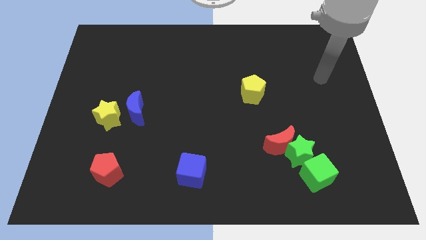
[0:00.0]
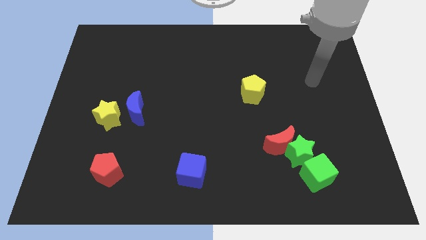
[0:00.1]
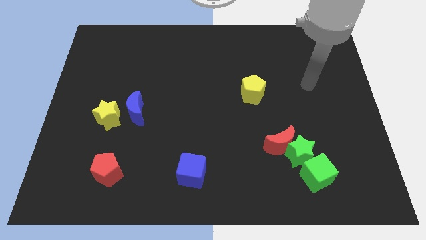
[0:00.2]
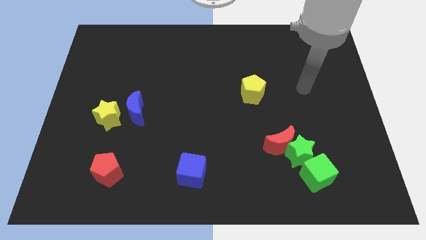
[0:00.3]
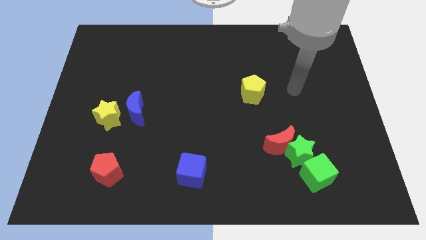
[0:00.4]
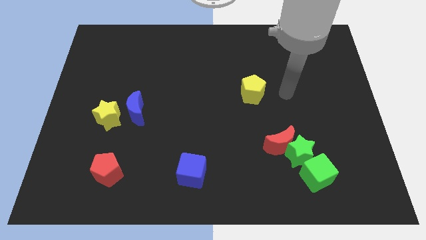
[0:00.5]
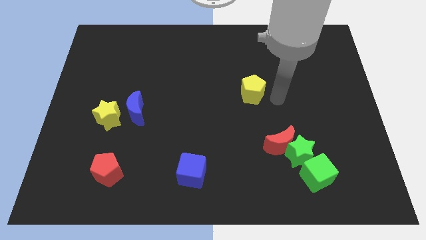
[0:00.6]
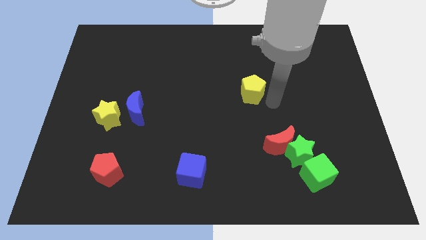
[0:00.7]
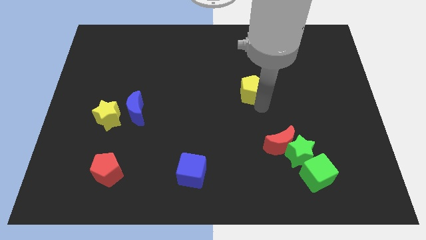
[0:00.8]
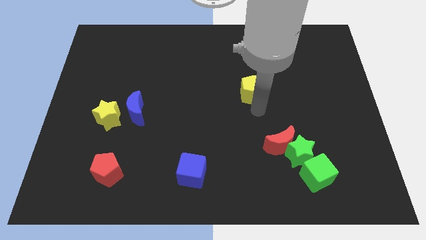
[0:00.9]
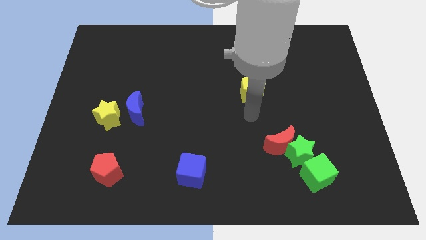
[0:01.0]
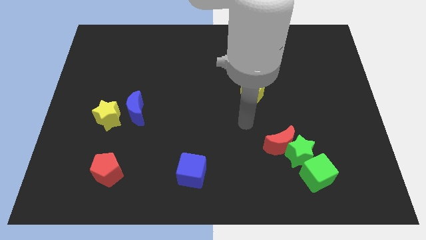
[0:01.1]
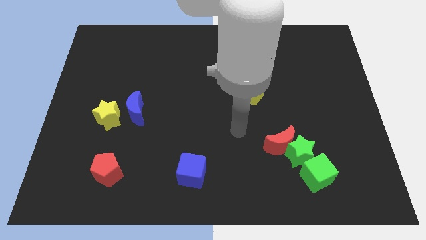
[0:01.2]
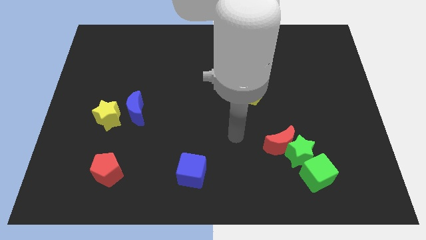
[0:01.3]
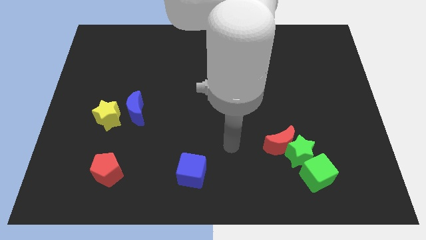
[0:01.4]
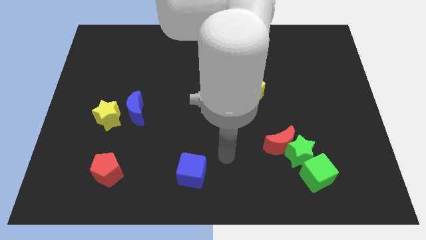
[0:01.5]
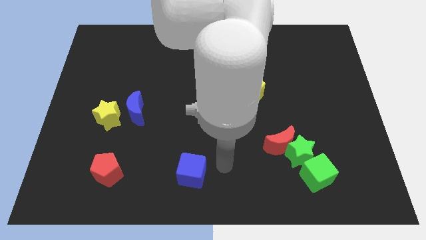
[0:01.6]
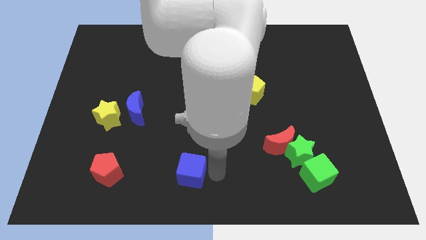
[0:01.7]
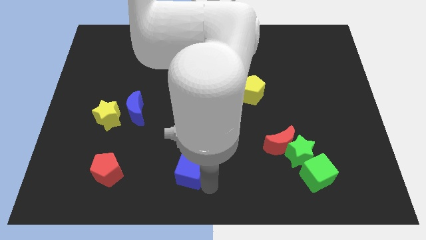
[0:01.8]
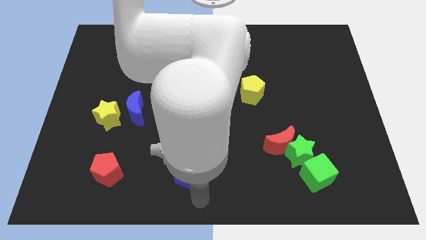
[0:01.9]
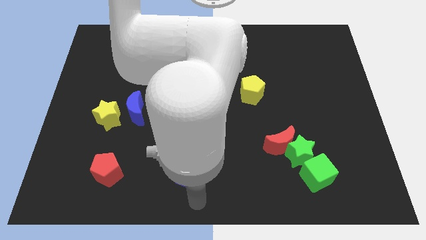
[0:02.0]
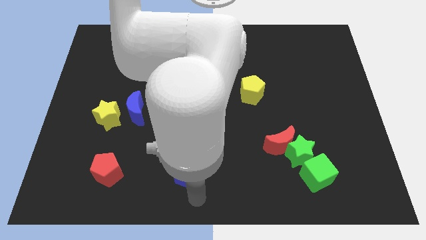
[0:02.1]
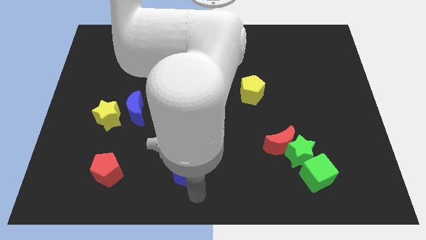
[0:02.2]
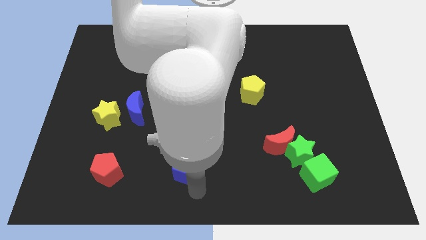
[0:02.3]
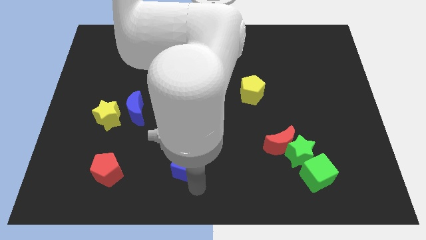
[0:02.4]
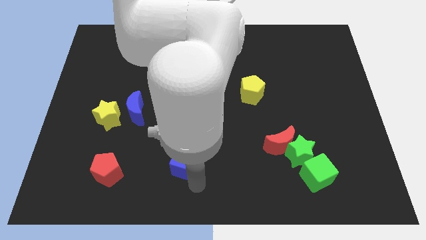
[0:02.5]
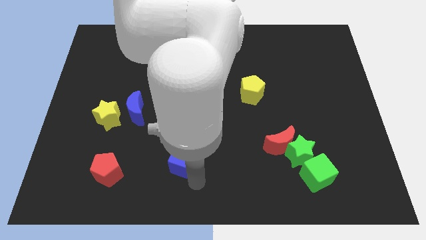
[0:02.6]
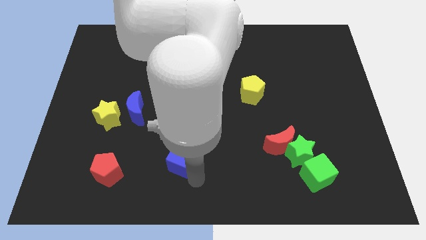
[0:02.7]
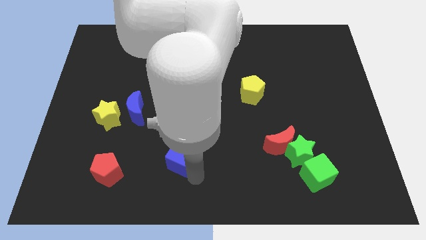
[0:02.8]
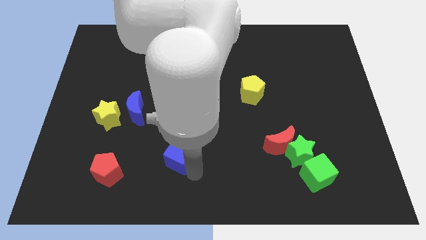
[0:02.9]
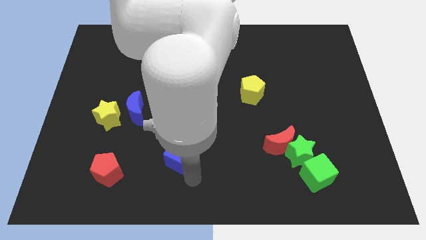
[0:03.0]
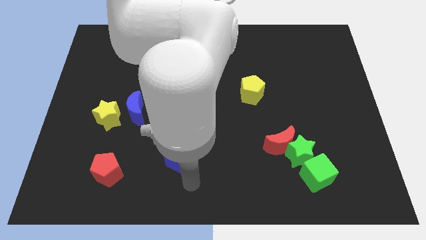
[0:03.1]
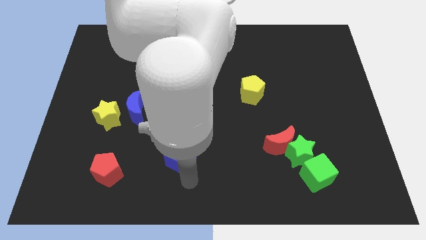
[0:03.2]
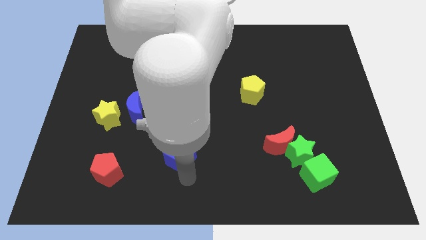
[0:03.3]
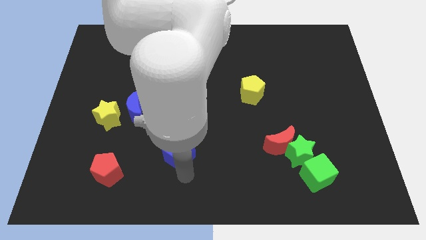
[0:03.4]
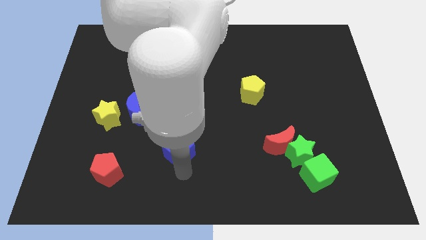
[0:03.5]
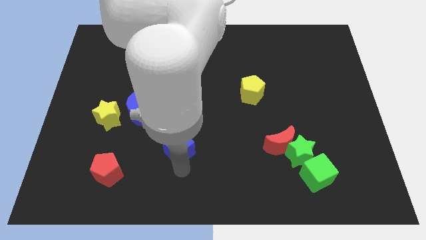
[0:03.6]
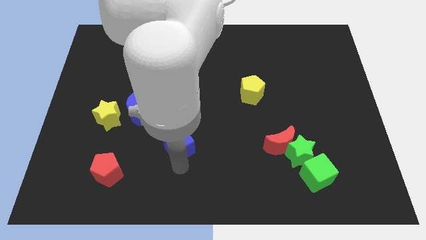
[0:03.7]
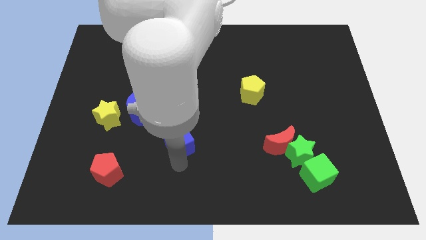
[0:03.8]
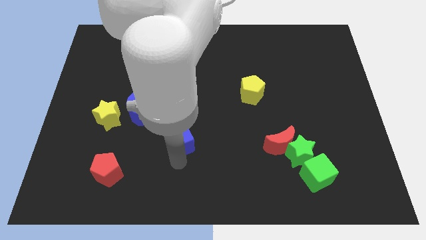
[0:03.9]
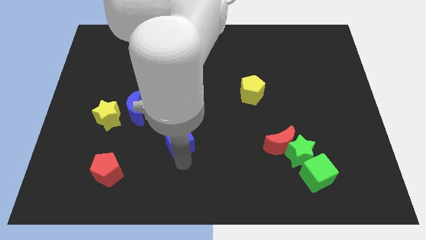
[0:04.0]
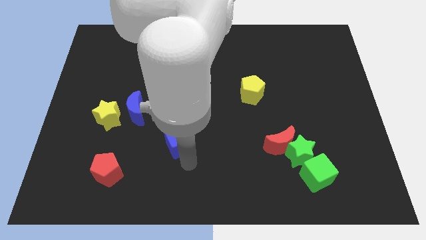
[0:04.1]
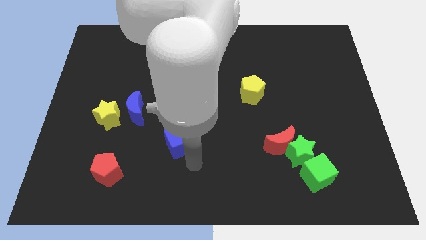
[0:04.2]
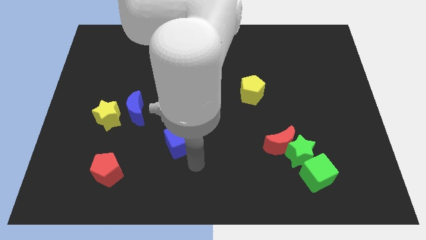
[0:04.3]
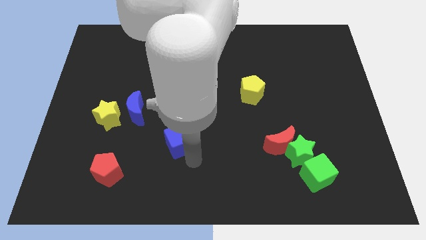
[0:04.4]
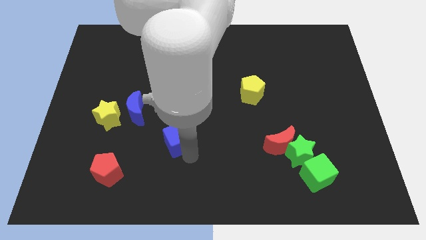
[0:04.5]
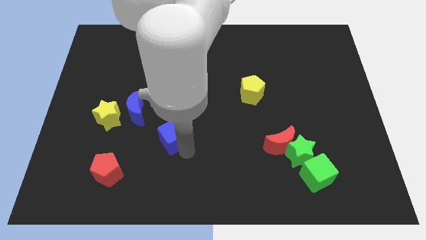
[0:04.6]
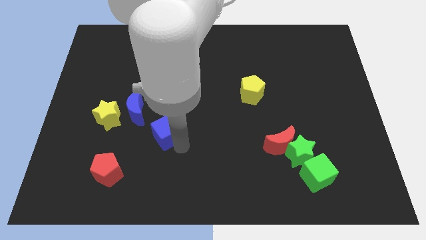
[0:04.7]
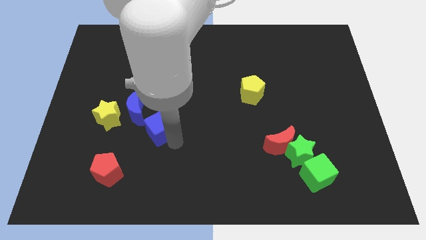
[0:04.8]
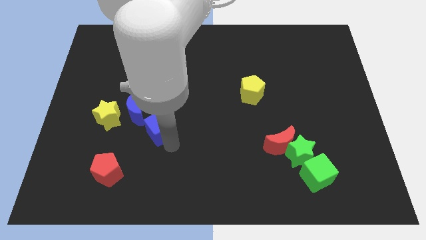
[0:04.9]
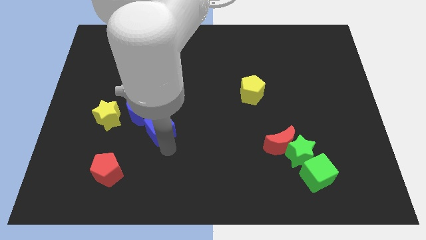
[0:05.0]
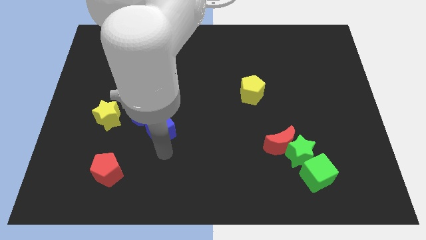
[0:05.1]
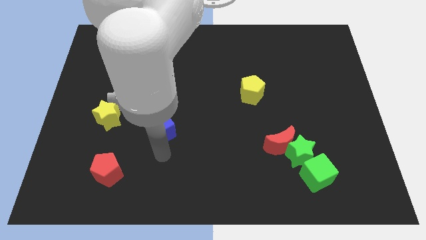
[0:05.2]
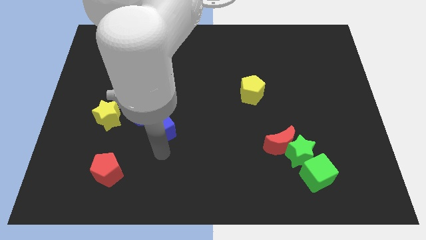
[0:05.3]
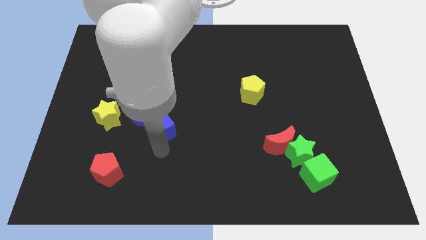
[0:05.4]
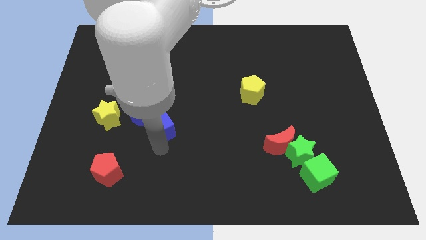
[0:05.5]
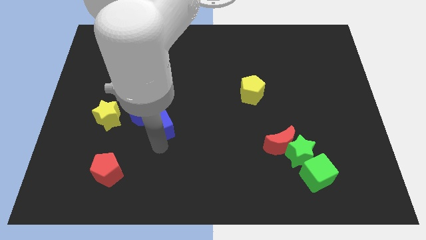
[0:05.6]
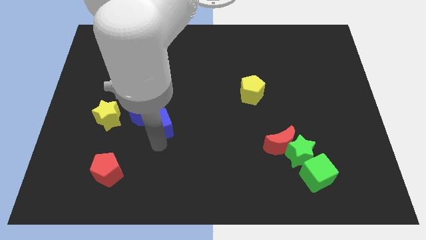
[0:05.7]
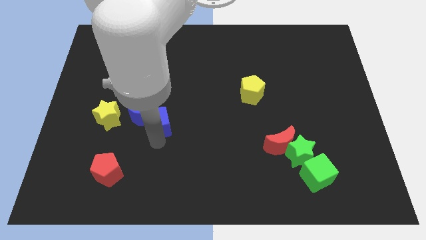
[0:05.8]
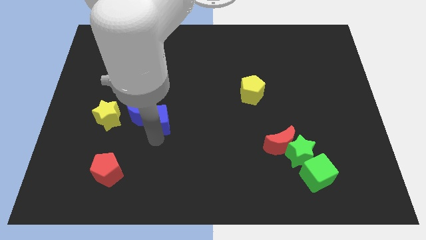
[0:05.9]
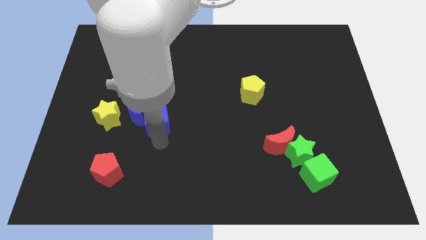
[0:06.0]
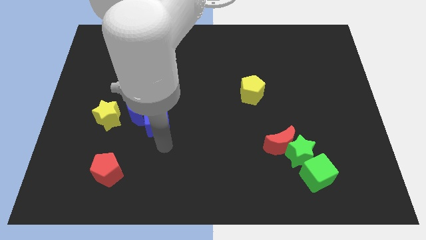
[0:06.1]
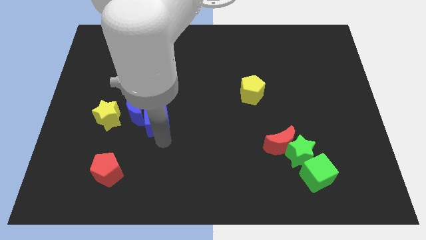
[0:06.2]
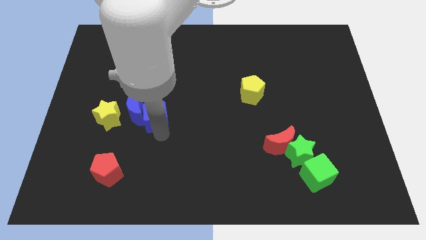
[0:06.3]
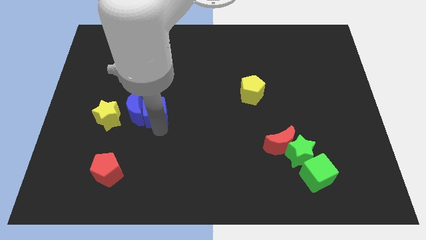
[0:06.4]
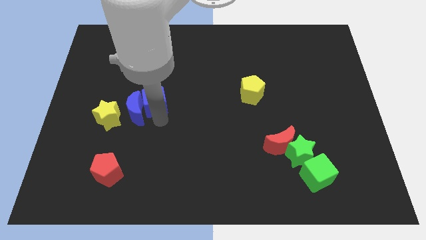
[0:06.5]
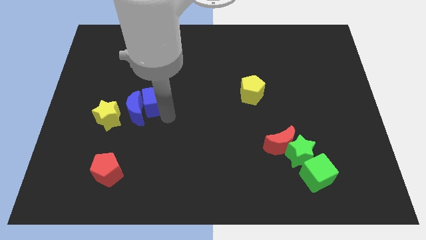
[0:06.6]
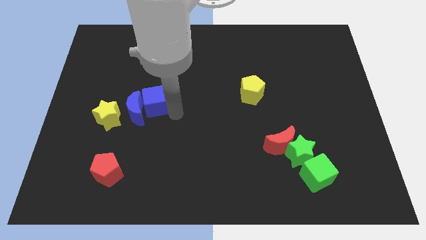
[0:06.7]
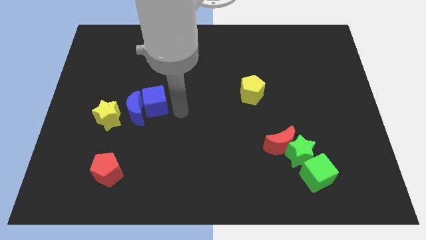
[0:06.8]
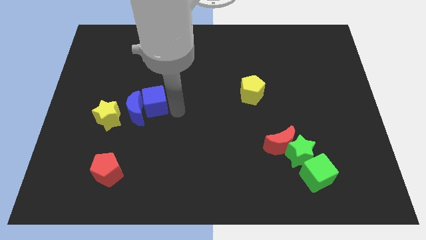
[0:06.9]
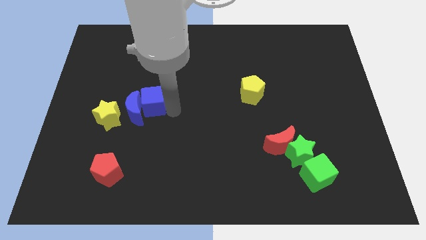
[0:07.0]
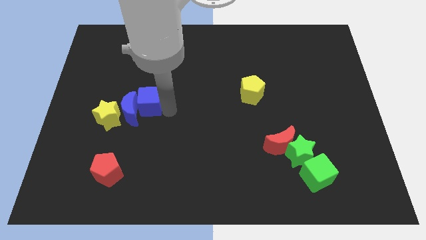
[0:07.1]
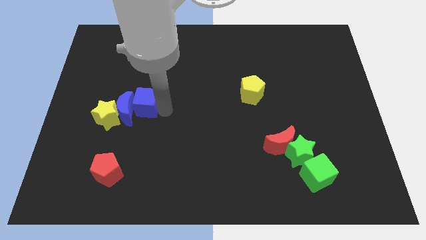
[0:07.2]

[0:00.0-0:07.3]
move the blue cube up and to the left

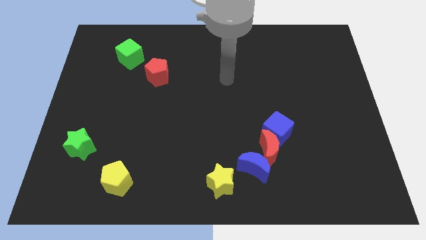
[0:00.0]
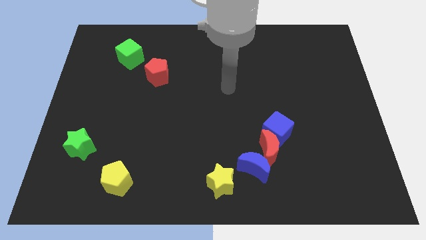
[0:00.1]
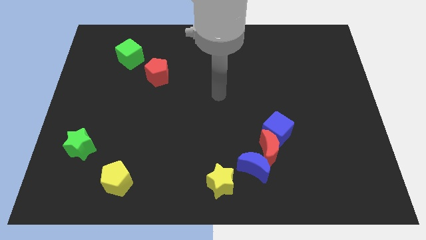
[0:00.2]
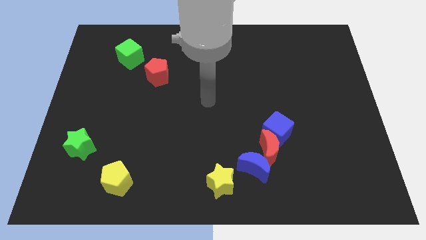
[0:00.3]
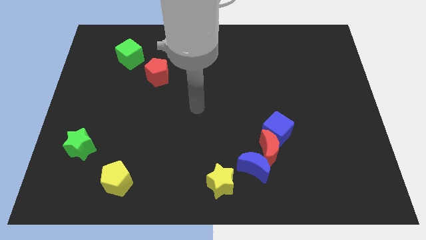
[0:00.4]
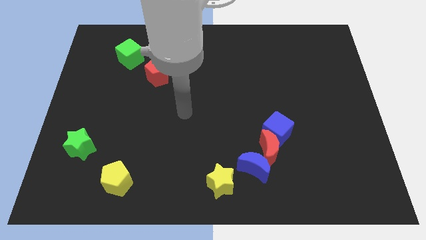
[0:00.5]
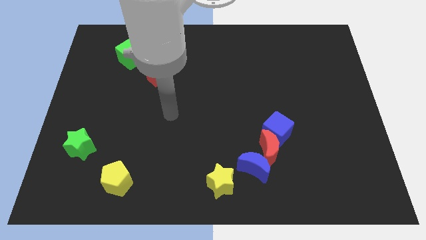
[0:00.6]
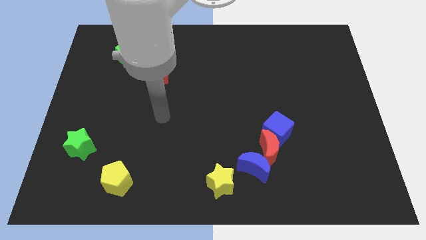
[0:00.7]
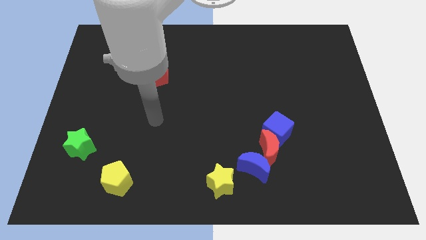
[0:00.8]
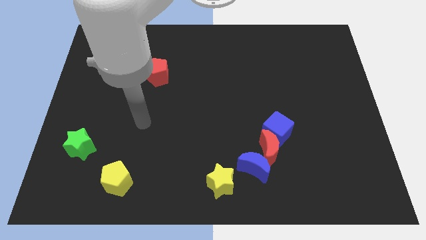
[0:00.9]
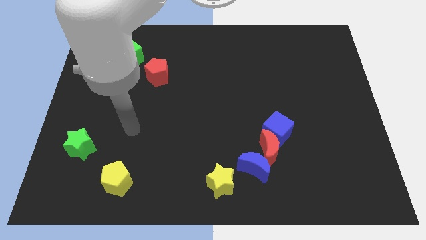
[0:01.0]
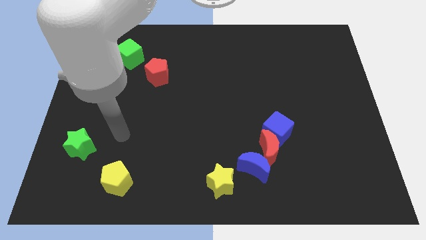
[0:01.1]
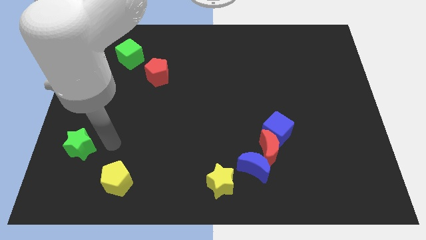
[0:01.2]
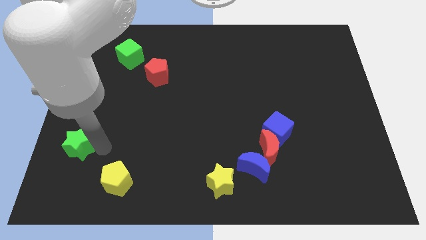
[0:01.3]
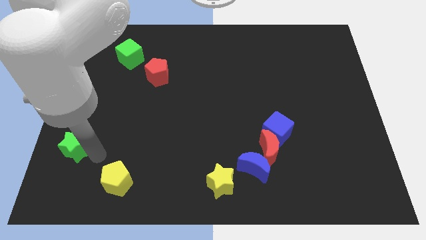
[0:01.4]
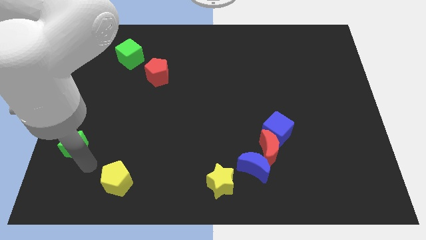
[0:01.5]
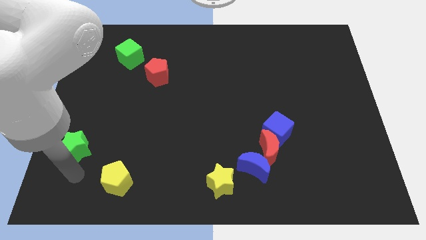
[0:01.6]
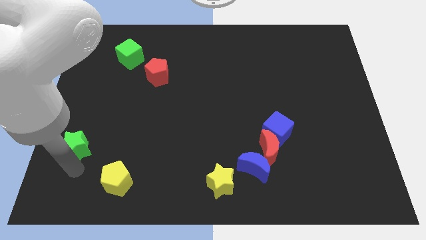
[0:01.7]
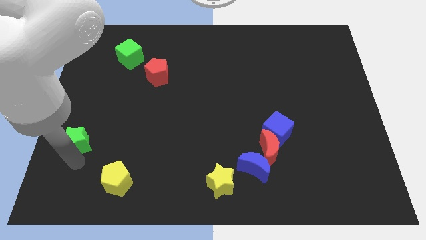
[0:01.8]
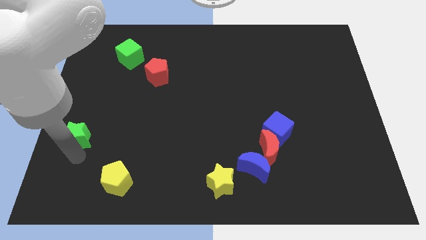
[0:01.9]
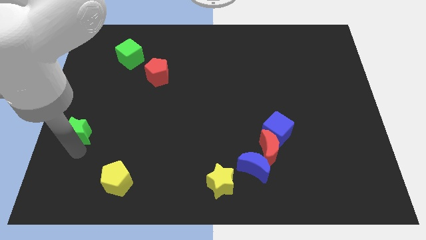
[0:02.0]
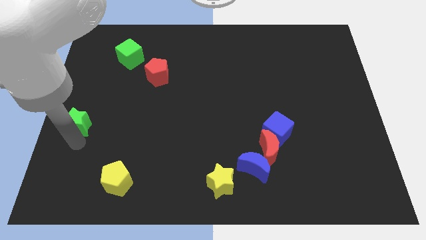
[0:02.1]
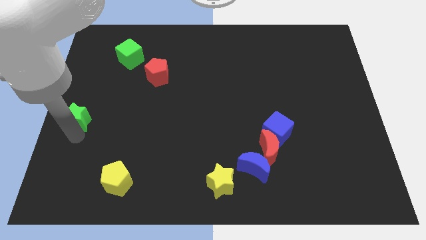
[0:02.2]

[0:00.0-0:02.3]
slide the green star somewhat upwards
